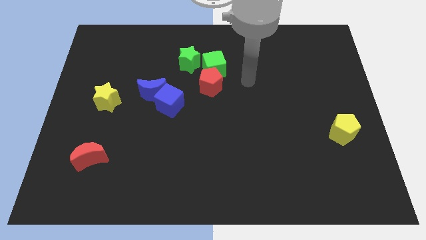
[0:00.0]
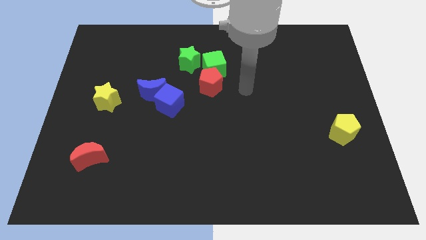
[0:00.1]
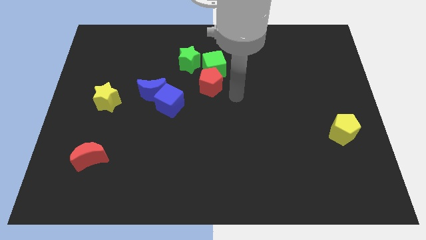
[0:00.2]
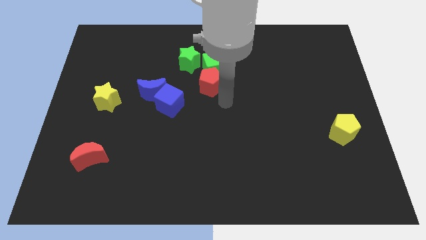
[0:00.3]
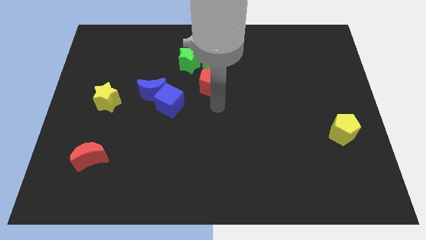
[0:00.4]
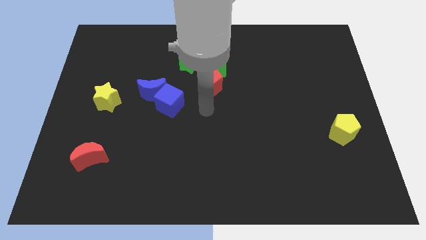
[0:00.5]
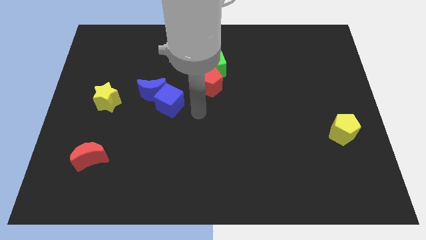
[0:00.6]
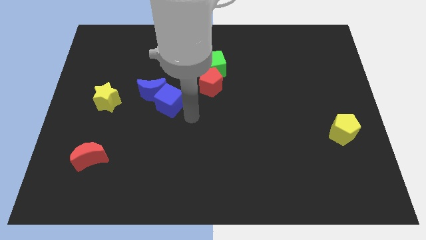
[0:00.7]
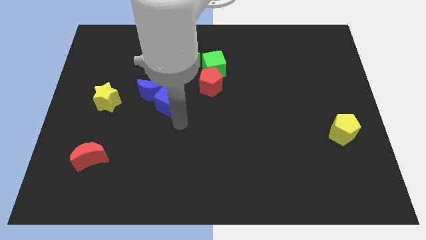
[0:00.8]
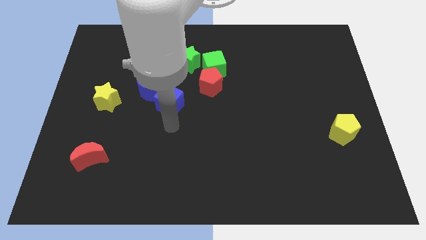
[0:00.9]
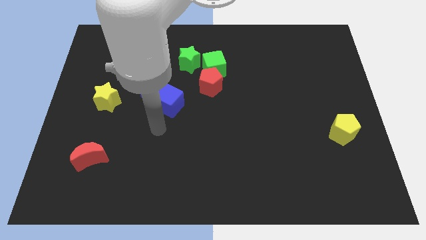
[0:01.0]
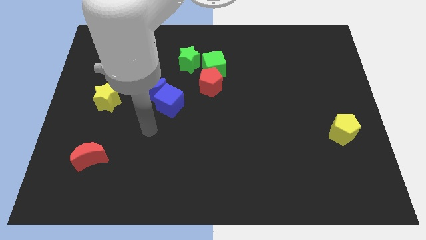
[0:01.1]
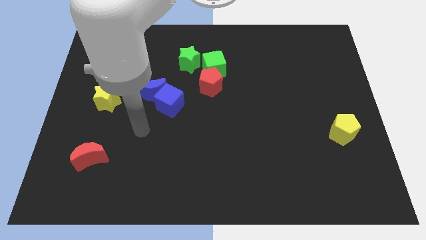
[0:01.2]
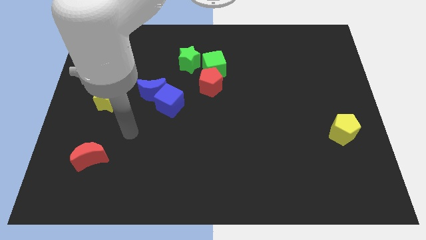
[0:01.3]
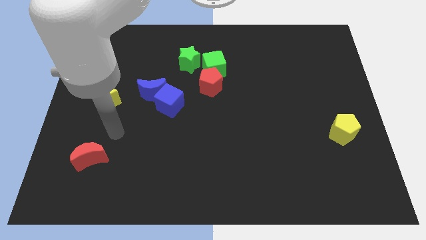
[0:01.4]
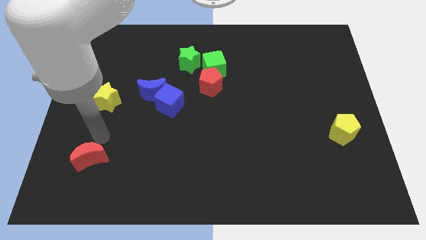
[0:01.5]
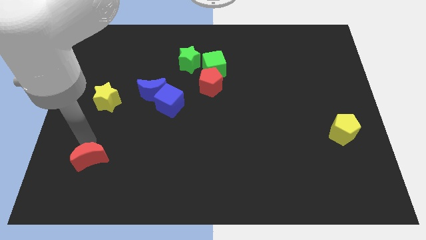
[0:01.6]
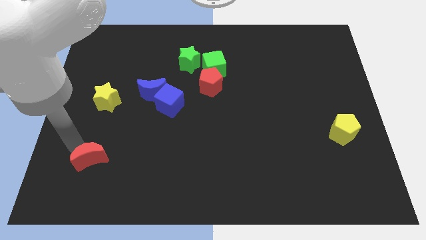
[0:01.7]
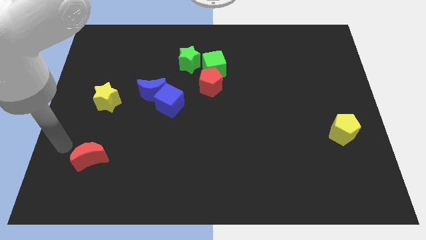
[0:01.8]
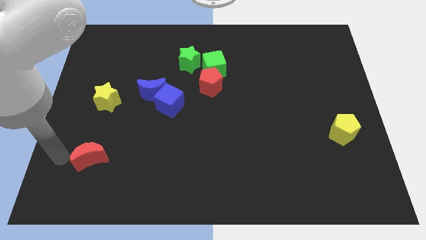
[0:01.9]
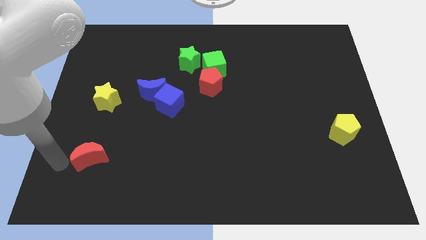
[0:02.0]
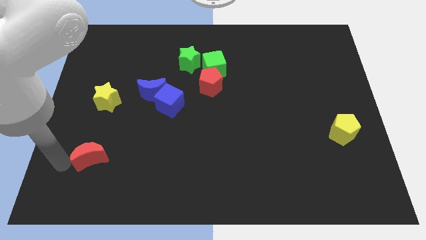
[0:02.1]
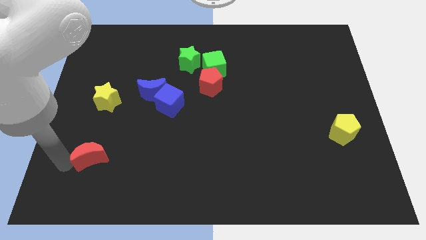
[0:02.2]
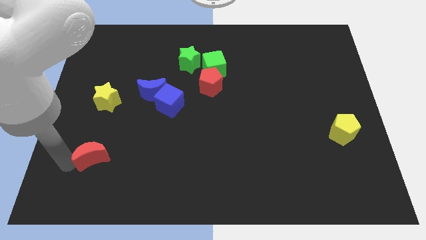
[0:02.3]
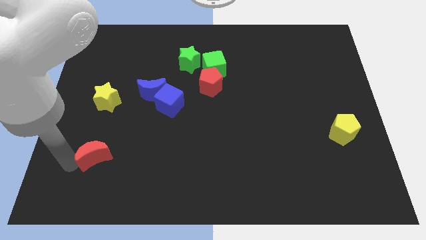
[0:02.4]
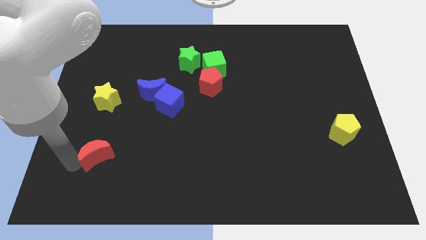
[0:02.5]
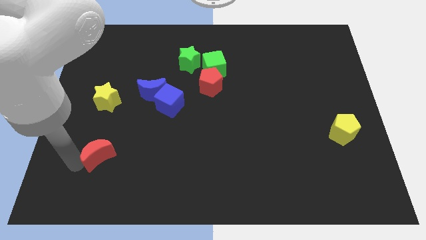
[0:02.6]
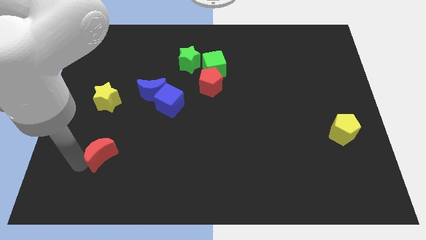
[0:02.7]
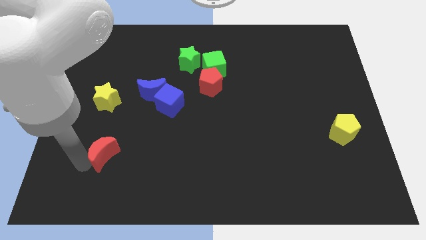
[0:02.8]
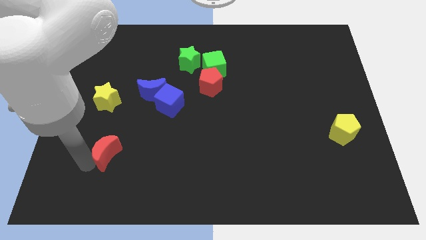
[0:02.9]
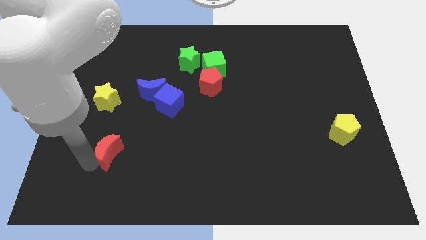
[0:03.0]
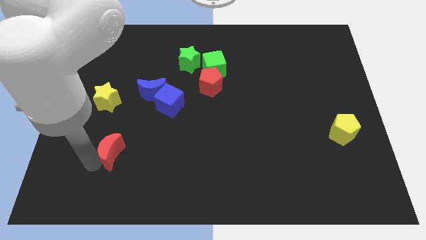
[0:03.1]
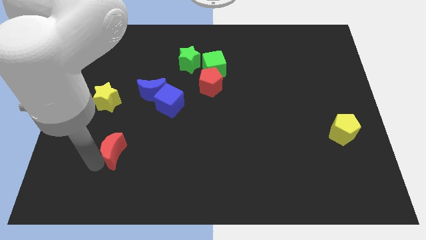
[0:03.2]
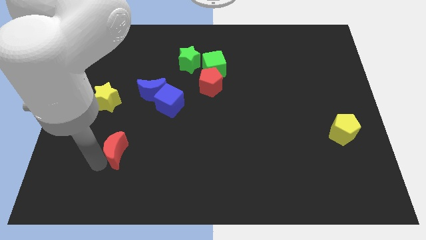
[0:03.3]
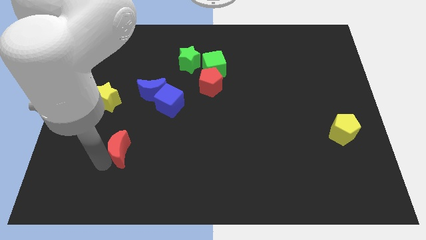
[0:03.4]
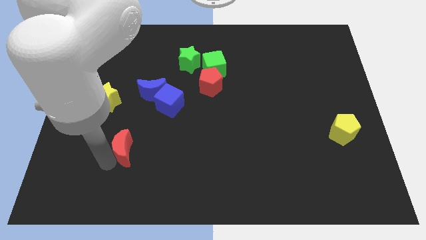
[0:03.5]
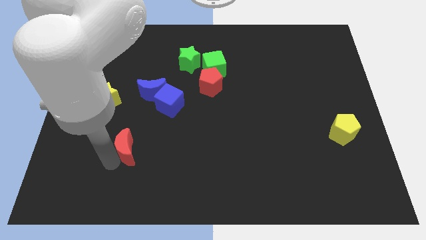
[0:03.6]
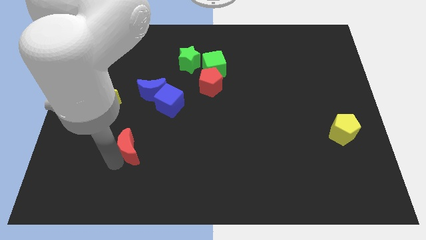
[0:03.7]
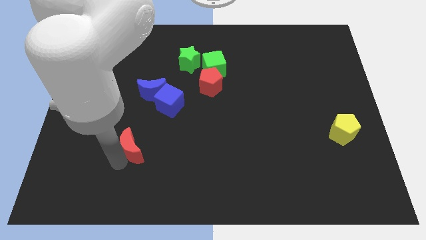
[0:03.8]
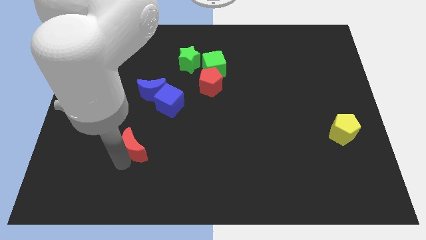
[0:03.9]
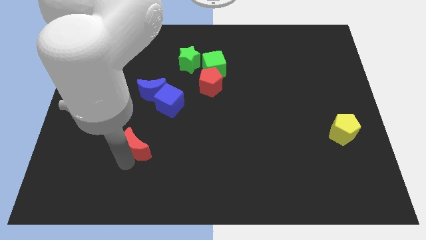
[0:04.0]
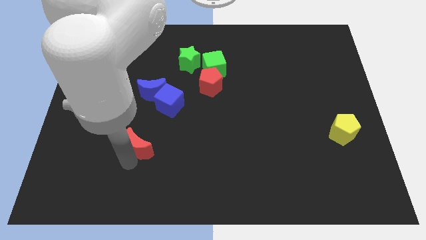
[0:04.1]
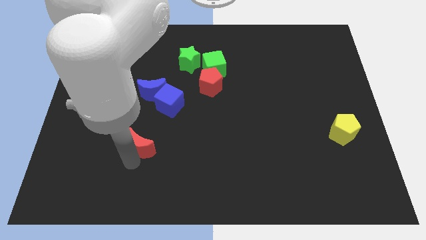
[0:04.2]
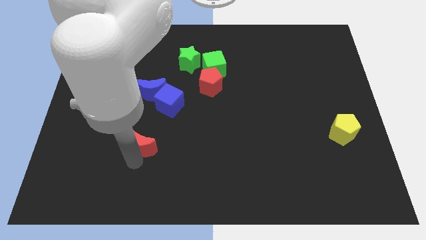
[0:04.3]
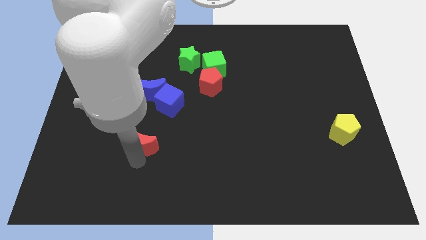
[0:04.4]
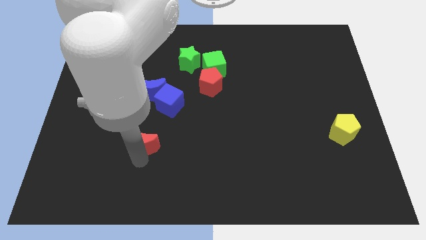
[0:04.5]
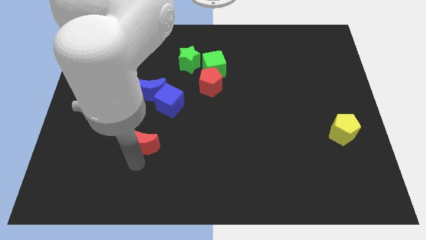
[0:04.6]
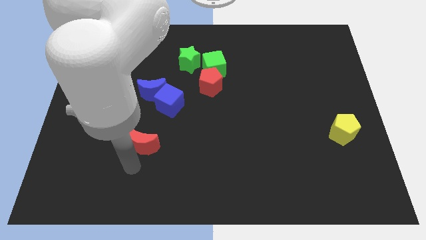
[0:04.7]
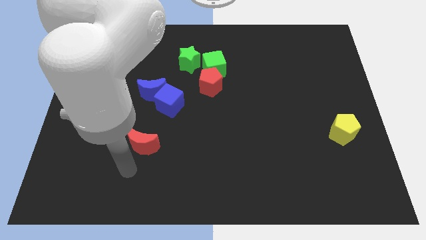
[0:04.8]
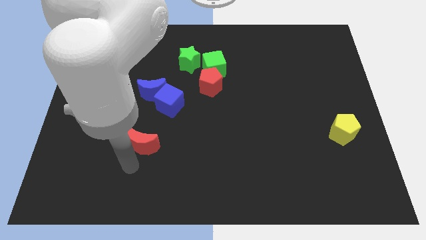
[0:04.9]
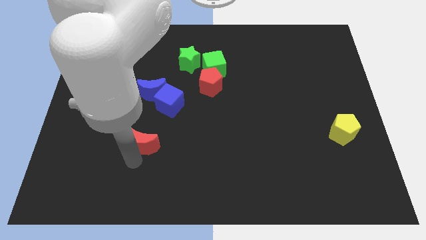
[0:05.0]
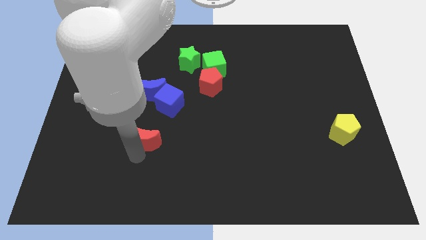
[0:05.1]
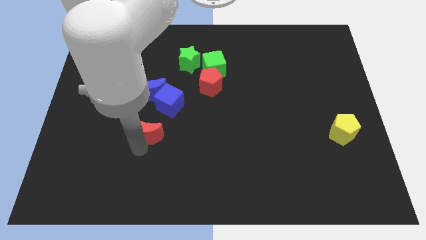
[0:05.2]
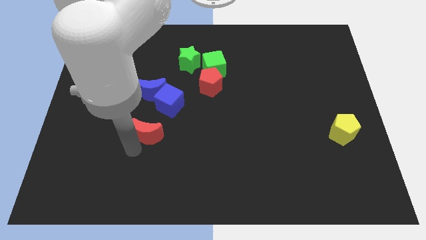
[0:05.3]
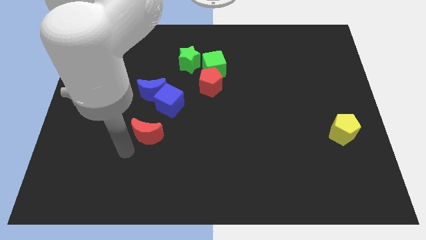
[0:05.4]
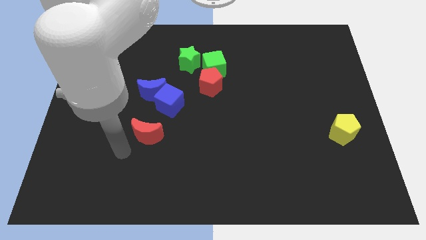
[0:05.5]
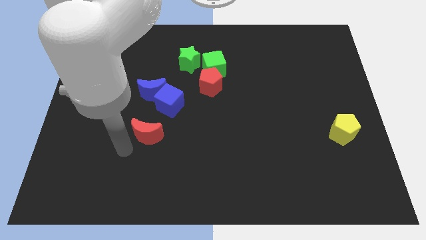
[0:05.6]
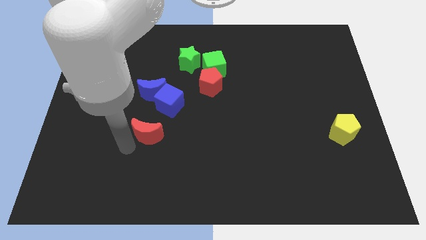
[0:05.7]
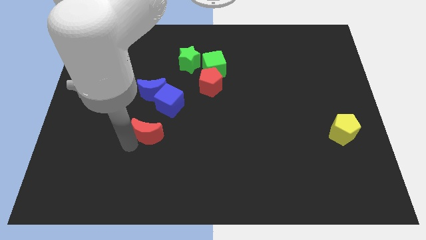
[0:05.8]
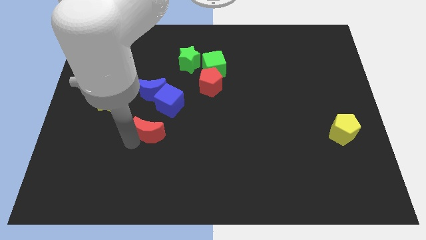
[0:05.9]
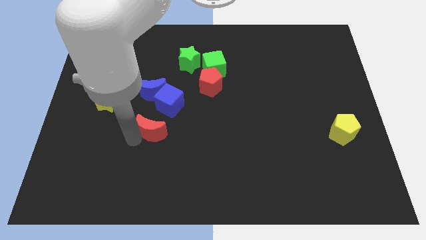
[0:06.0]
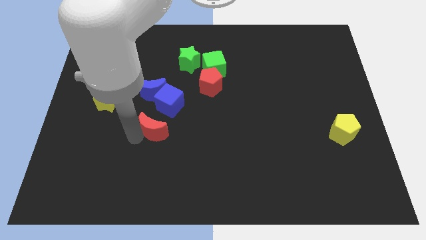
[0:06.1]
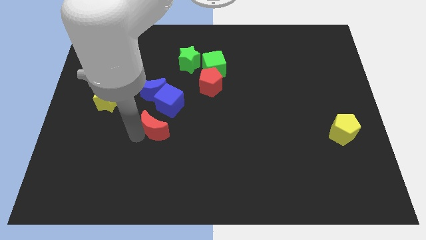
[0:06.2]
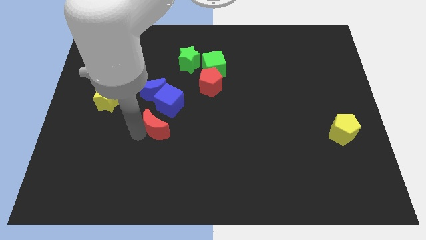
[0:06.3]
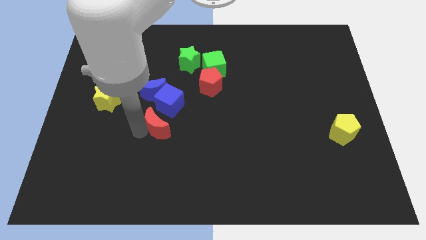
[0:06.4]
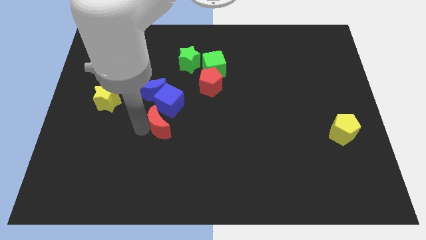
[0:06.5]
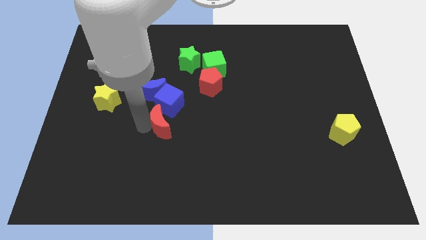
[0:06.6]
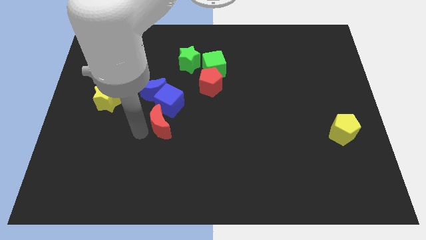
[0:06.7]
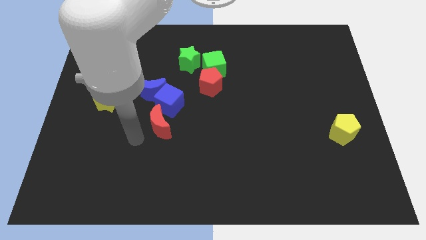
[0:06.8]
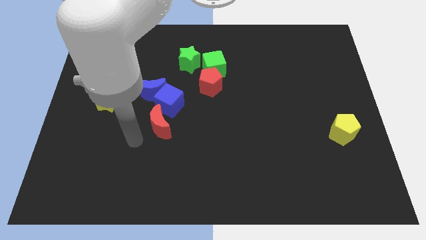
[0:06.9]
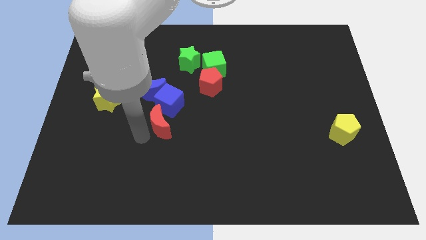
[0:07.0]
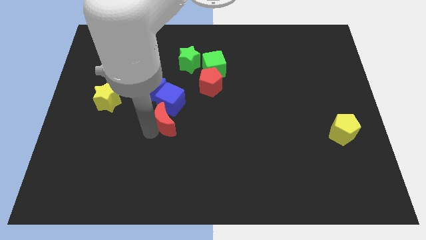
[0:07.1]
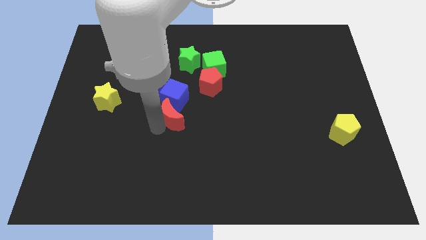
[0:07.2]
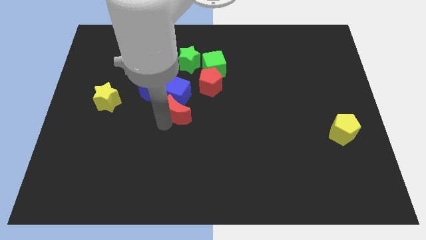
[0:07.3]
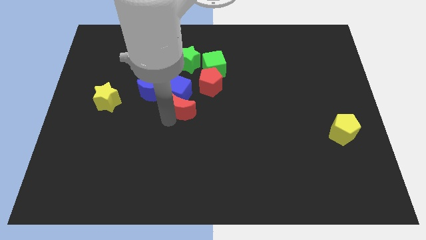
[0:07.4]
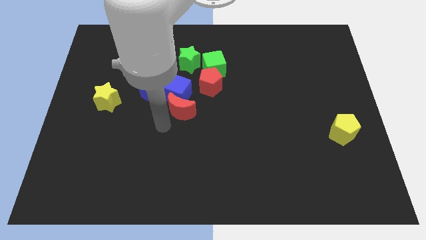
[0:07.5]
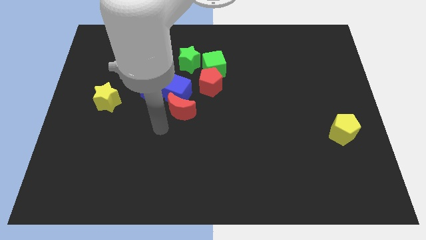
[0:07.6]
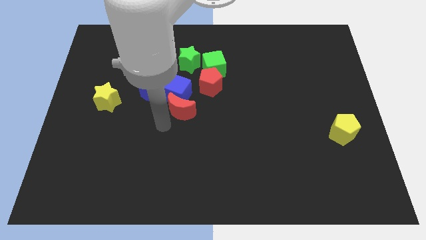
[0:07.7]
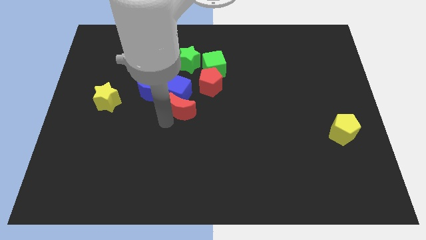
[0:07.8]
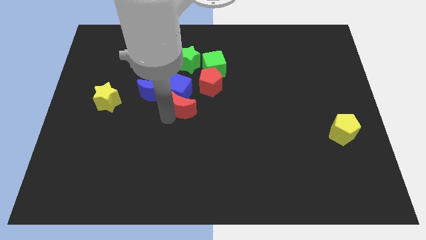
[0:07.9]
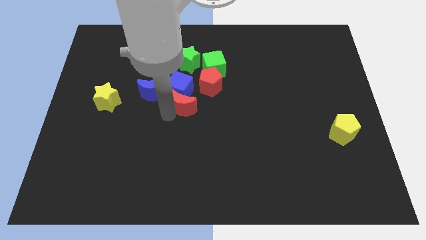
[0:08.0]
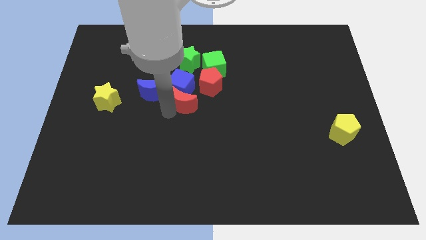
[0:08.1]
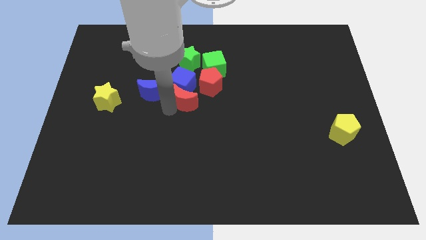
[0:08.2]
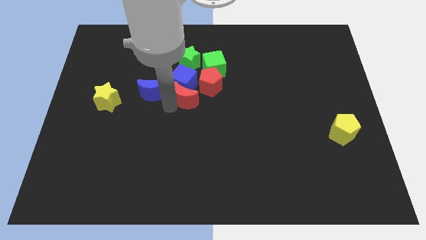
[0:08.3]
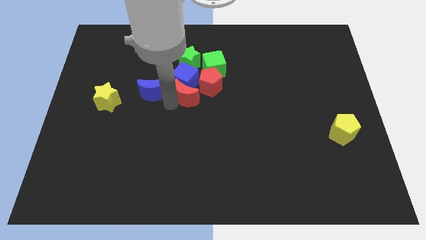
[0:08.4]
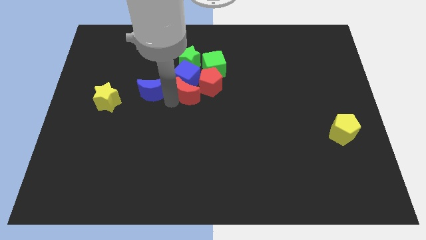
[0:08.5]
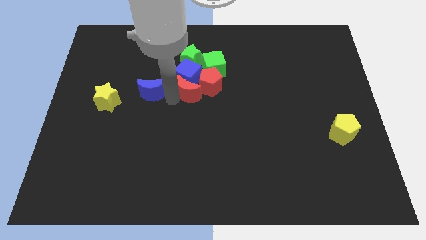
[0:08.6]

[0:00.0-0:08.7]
put the red moon towards the red pentagon
